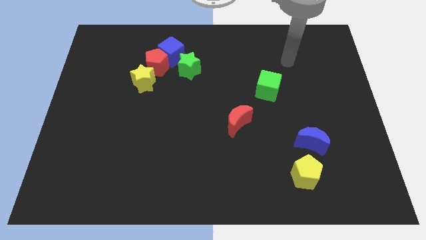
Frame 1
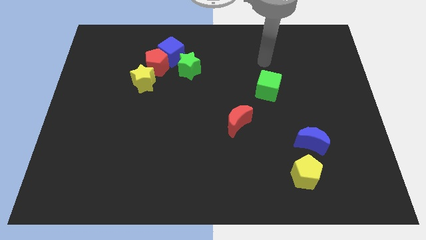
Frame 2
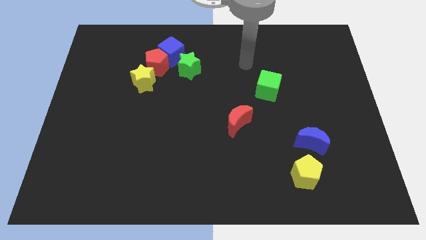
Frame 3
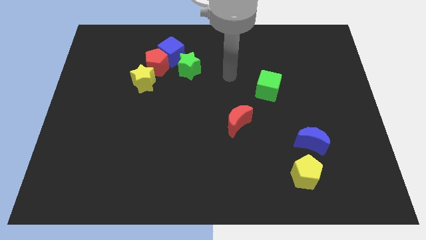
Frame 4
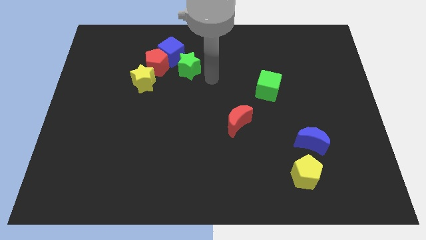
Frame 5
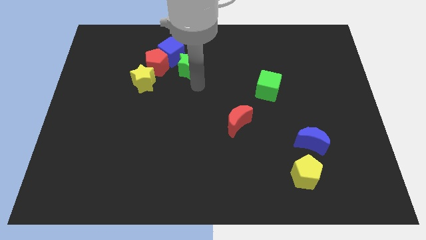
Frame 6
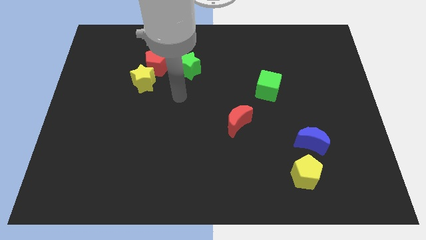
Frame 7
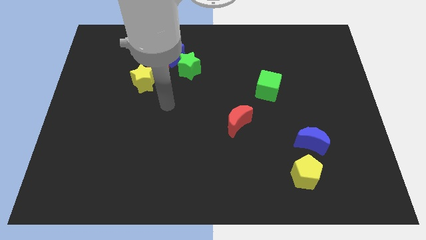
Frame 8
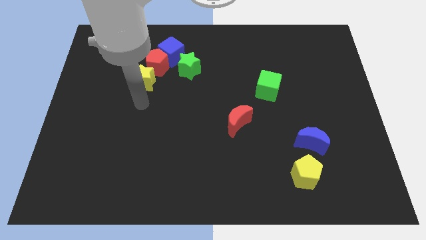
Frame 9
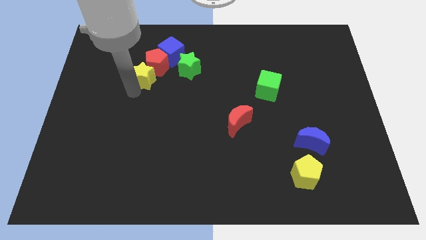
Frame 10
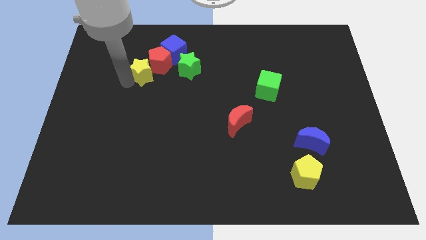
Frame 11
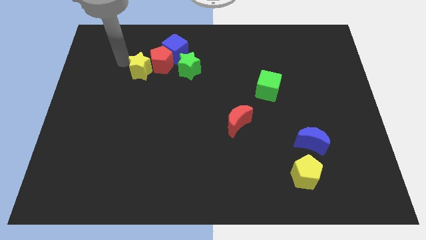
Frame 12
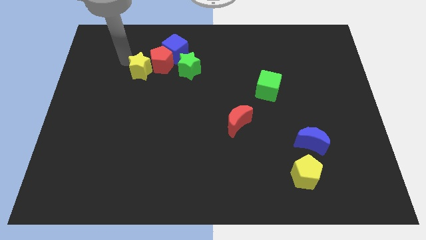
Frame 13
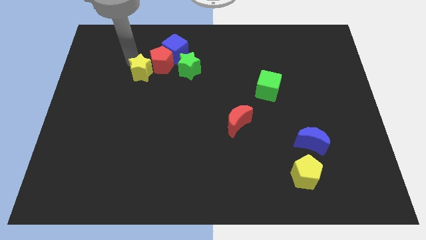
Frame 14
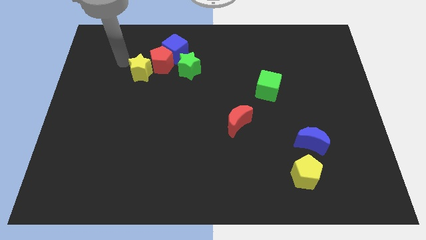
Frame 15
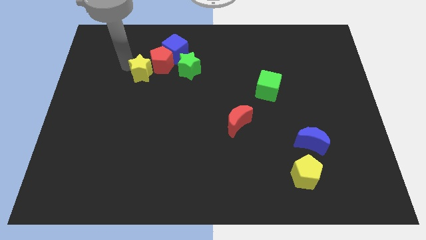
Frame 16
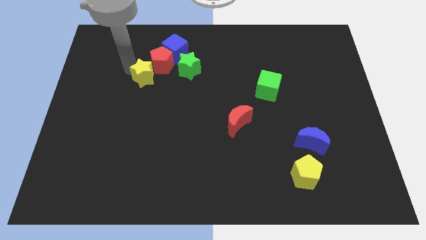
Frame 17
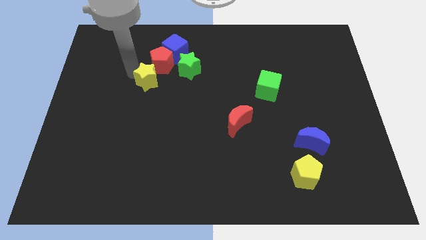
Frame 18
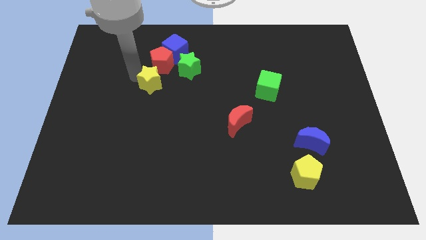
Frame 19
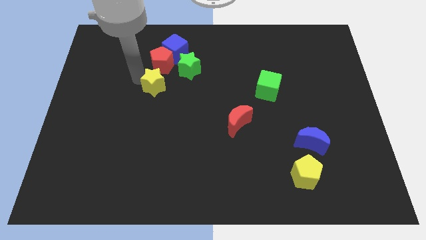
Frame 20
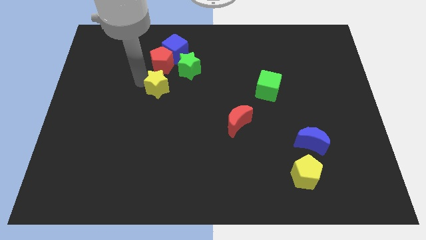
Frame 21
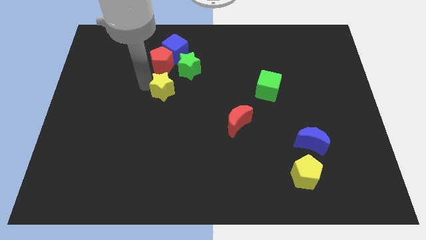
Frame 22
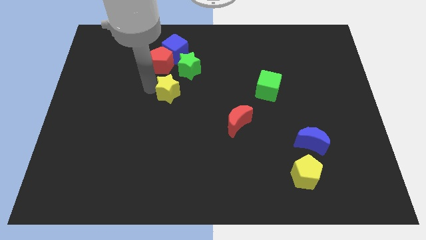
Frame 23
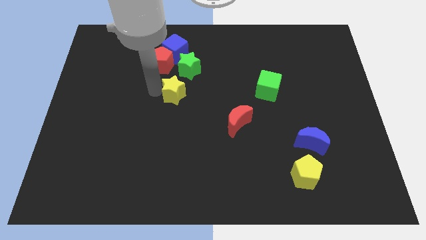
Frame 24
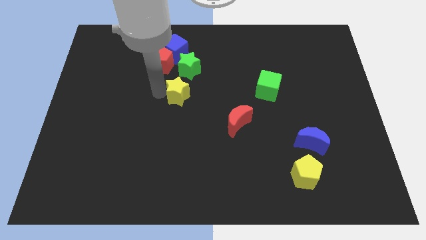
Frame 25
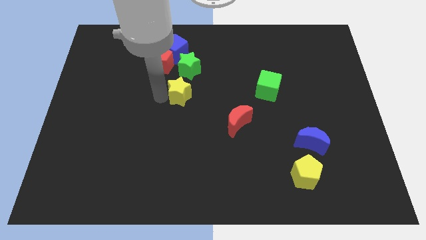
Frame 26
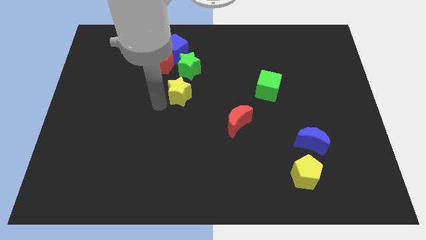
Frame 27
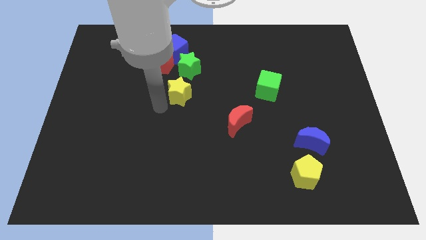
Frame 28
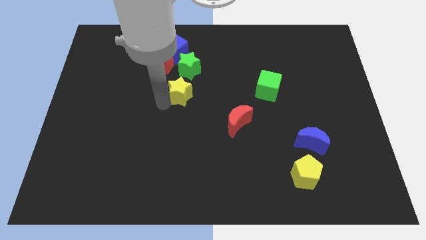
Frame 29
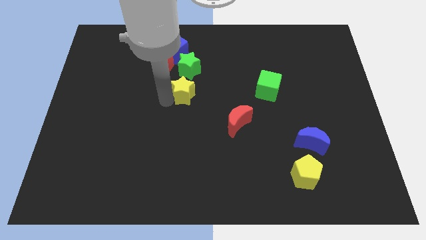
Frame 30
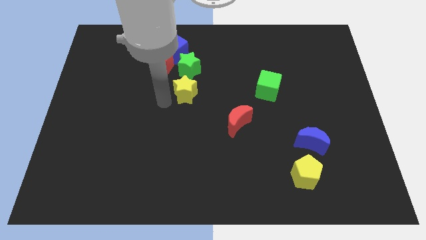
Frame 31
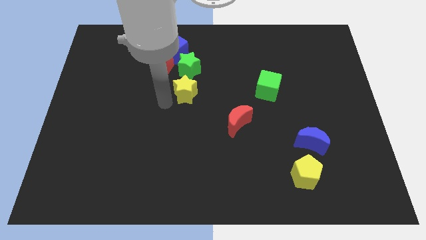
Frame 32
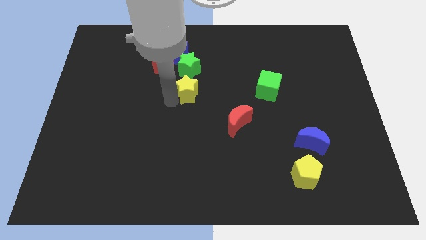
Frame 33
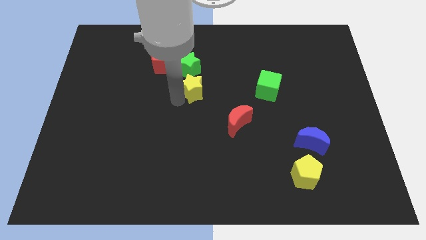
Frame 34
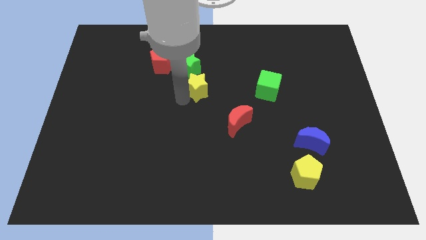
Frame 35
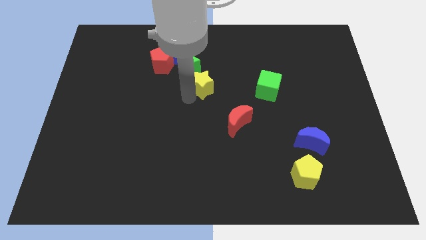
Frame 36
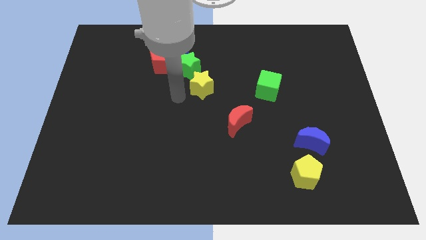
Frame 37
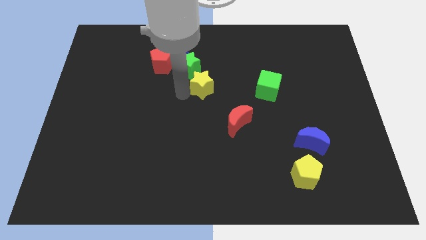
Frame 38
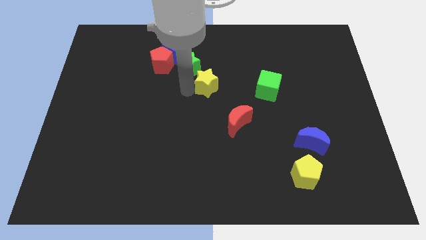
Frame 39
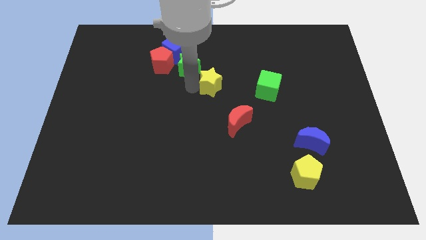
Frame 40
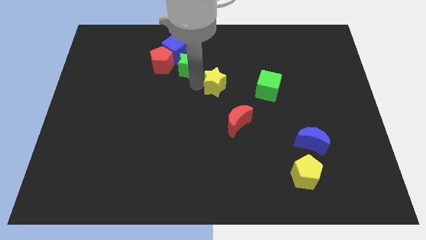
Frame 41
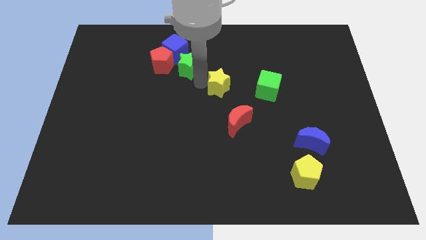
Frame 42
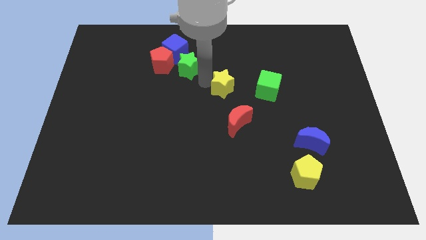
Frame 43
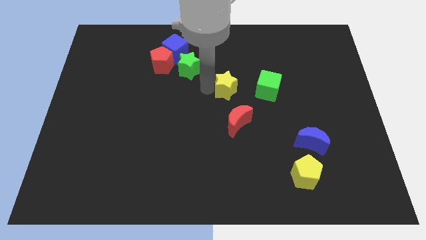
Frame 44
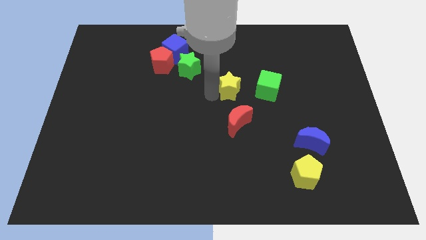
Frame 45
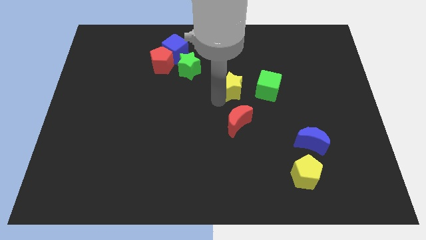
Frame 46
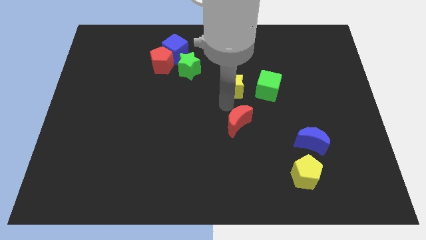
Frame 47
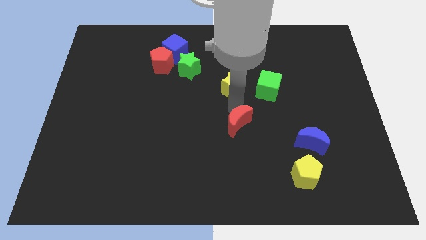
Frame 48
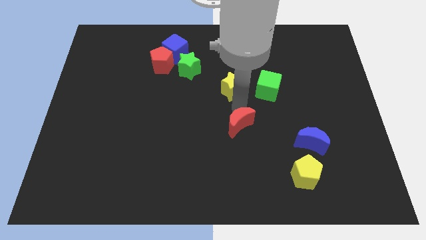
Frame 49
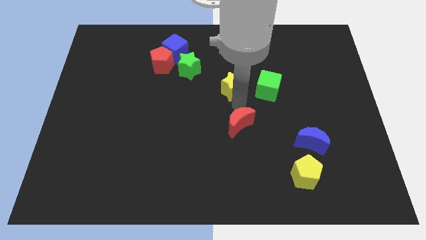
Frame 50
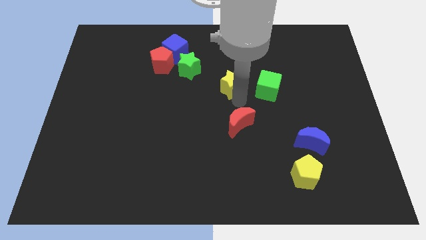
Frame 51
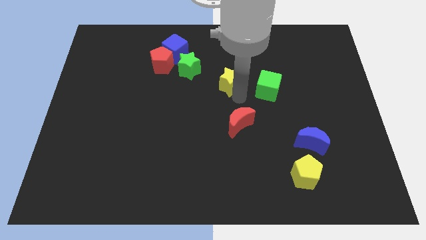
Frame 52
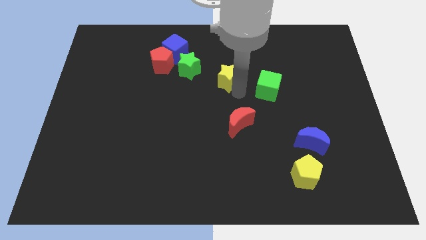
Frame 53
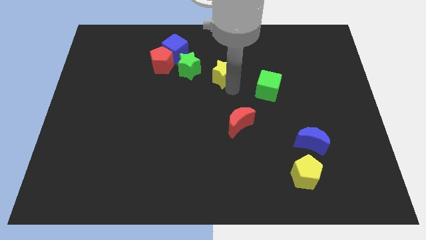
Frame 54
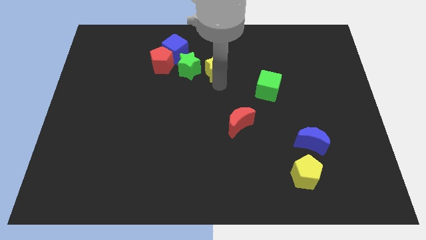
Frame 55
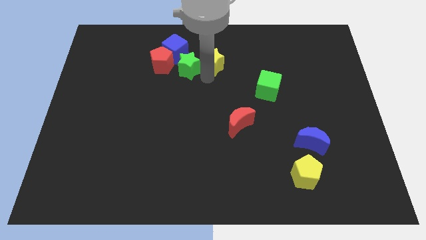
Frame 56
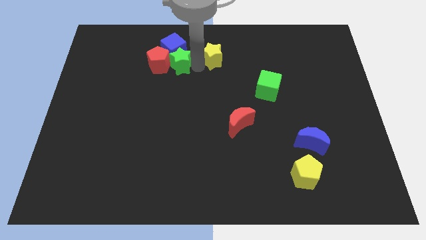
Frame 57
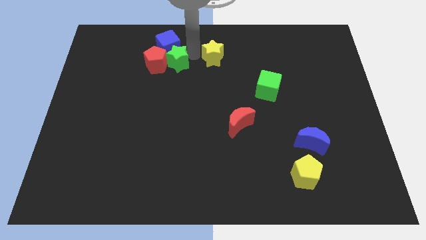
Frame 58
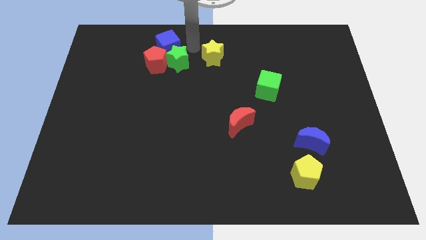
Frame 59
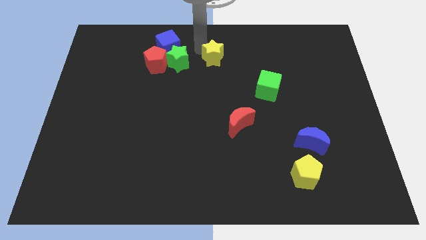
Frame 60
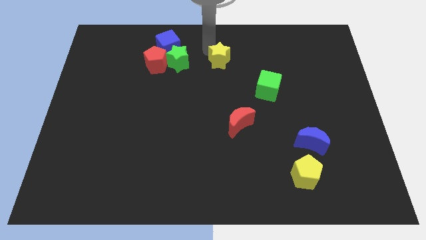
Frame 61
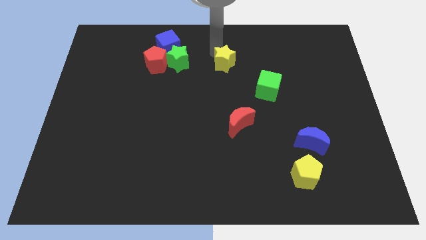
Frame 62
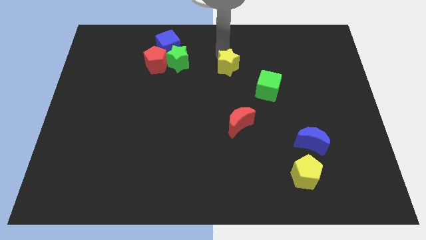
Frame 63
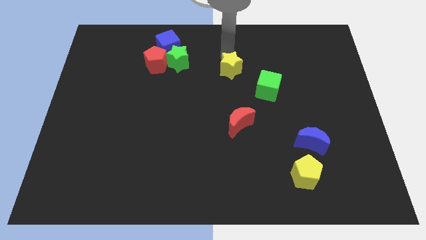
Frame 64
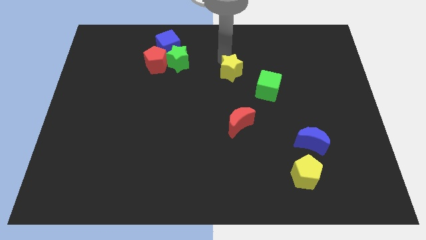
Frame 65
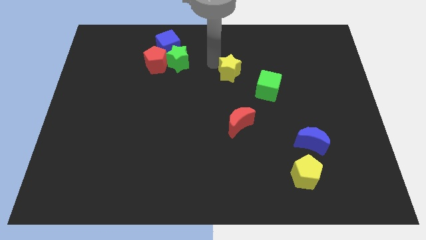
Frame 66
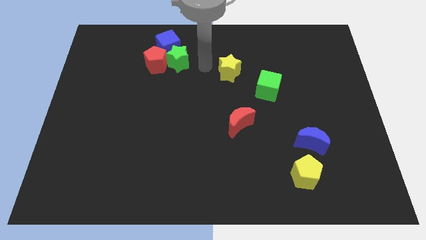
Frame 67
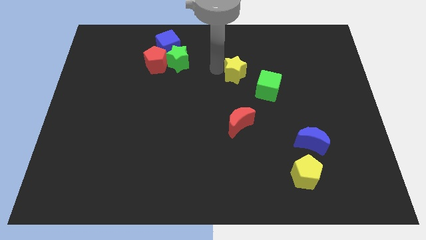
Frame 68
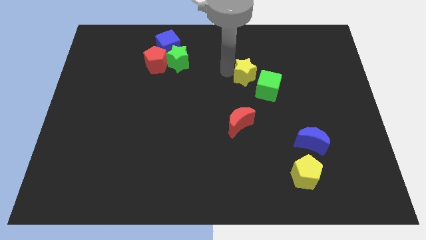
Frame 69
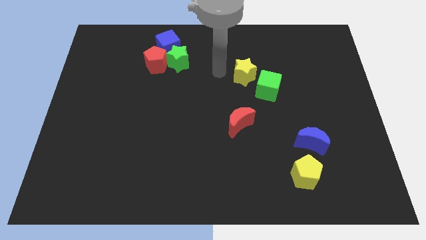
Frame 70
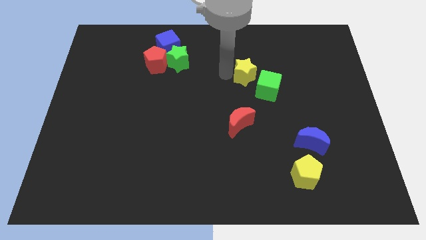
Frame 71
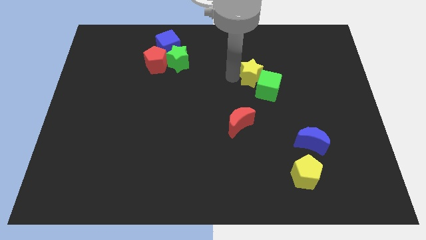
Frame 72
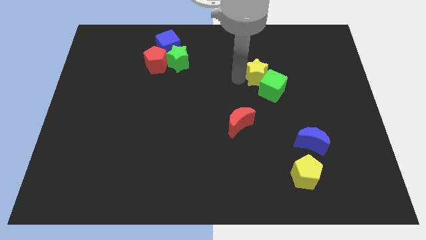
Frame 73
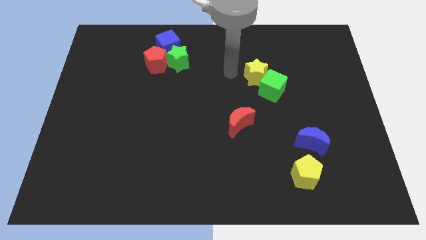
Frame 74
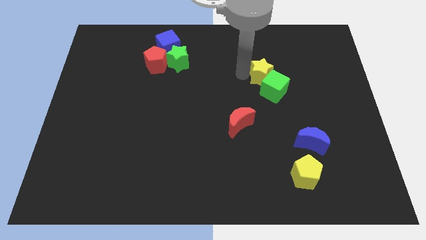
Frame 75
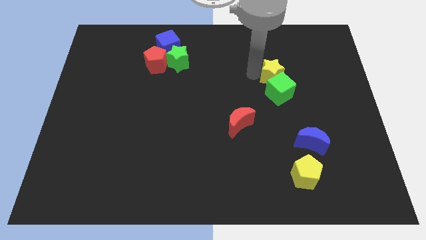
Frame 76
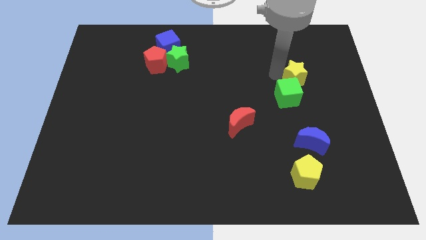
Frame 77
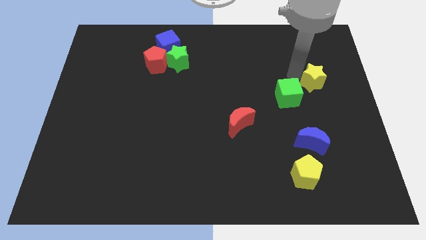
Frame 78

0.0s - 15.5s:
move the yellow star just right of the green cube
